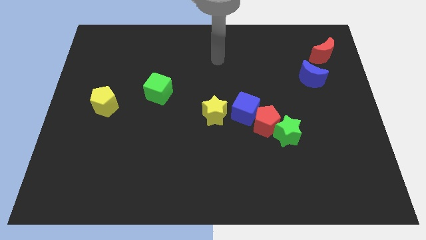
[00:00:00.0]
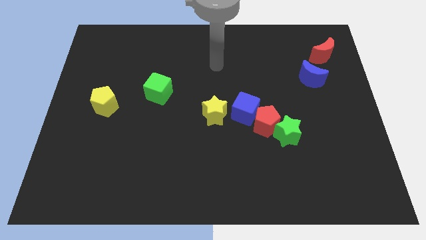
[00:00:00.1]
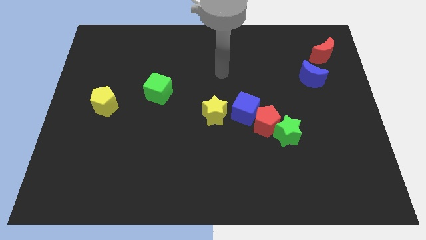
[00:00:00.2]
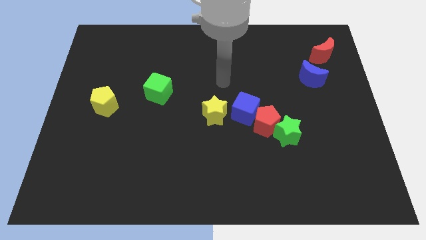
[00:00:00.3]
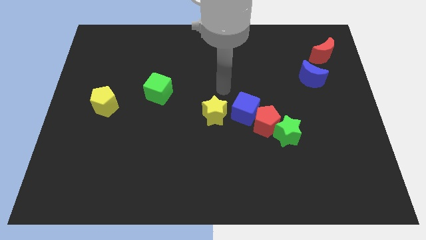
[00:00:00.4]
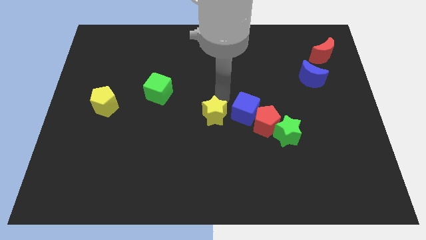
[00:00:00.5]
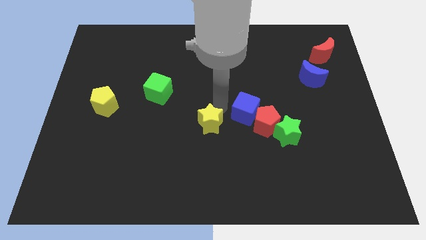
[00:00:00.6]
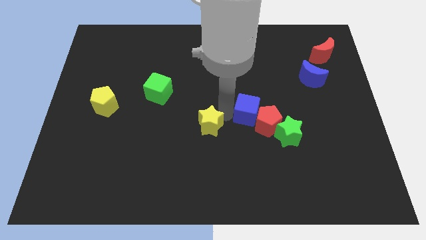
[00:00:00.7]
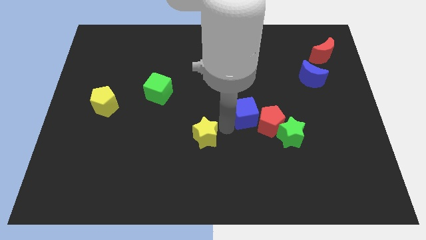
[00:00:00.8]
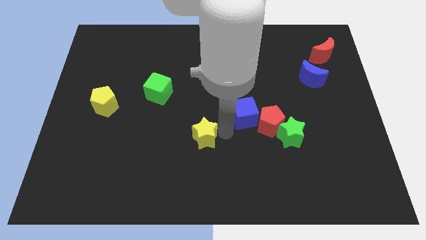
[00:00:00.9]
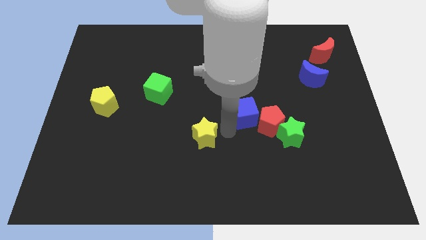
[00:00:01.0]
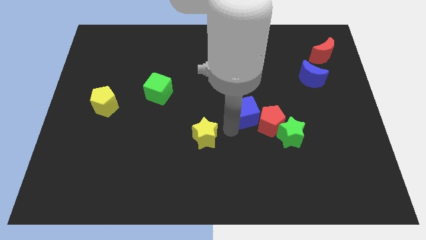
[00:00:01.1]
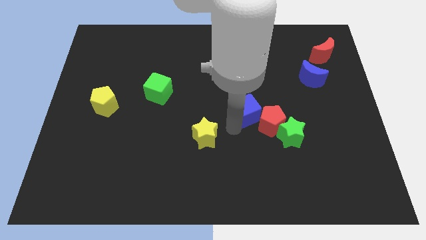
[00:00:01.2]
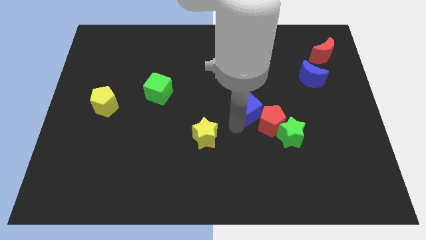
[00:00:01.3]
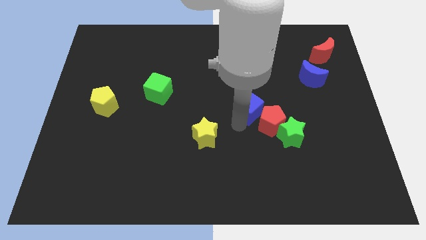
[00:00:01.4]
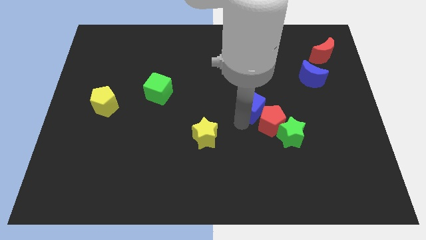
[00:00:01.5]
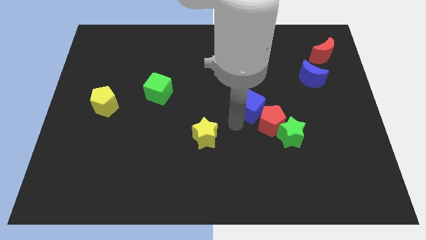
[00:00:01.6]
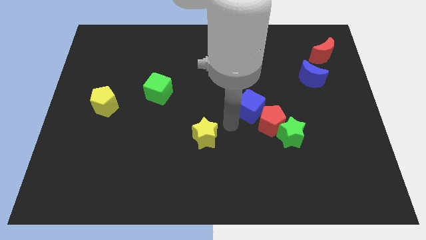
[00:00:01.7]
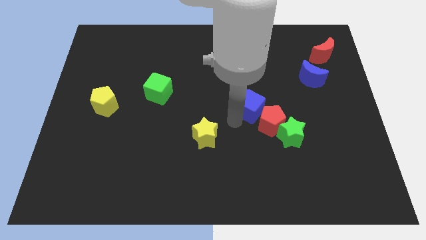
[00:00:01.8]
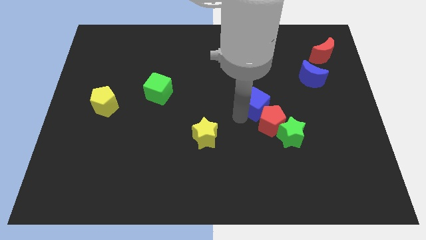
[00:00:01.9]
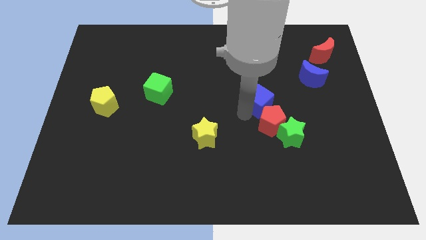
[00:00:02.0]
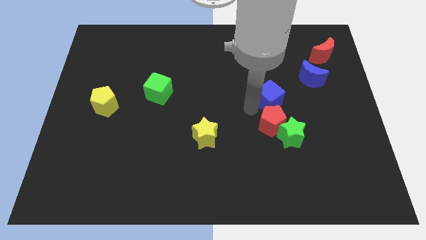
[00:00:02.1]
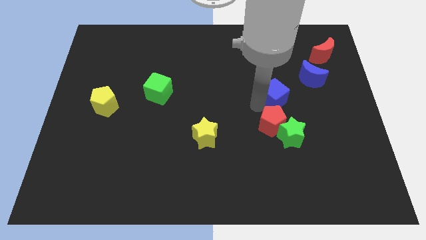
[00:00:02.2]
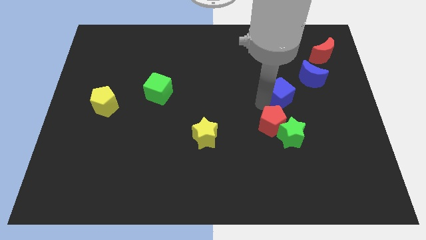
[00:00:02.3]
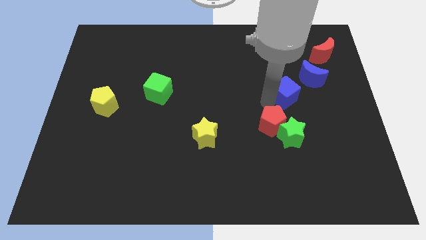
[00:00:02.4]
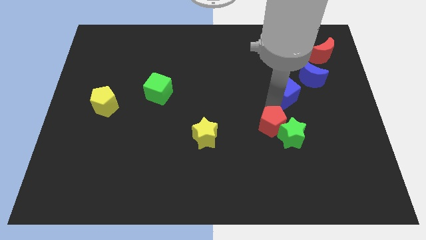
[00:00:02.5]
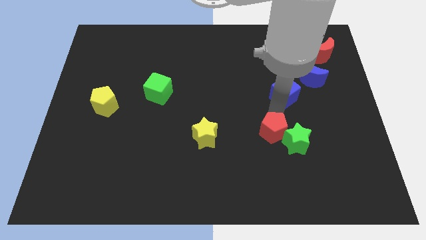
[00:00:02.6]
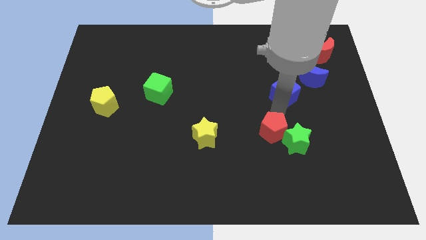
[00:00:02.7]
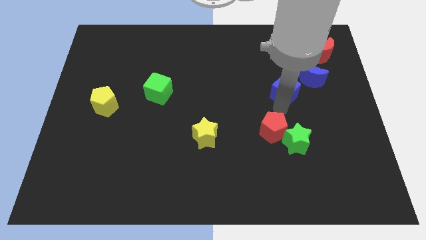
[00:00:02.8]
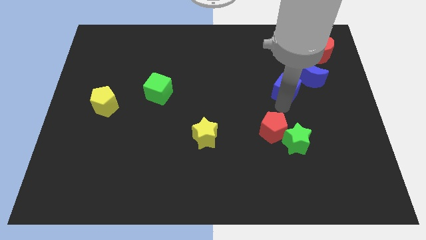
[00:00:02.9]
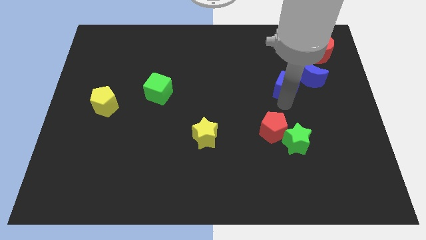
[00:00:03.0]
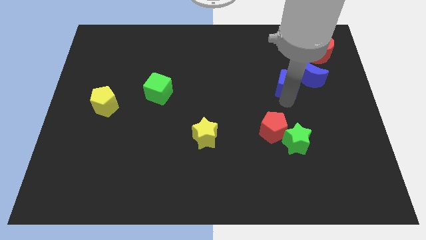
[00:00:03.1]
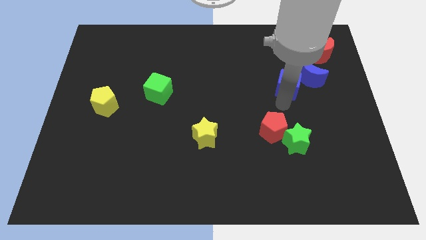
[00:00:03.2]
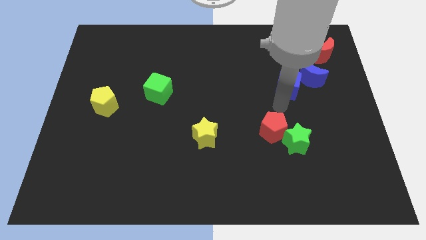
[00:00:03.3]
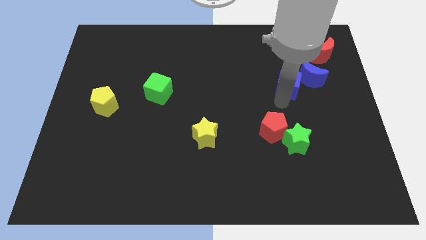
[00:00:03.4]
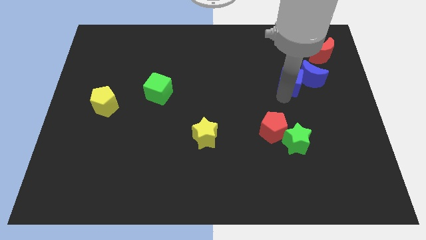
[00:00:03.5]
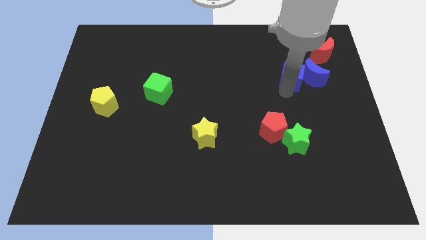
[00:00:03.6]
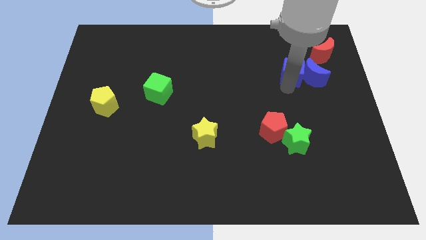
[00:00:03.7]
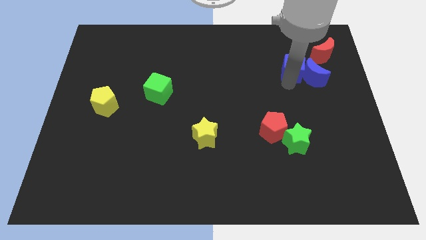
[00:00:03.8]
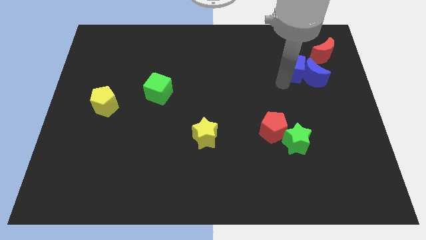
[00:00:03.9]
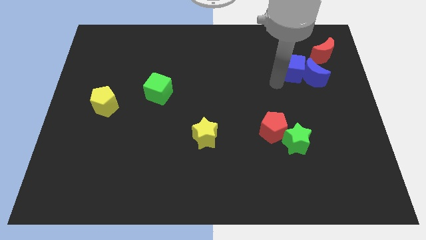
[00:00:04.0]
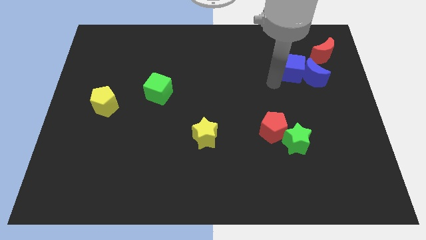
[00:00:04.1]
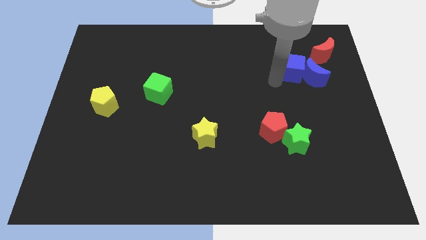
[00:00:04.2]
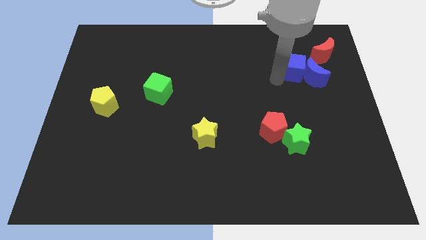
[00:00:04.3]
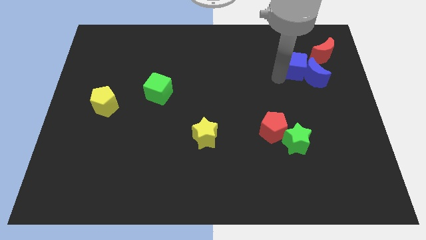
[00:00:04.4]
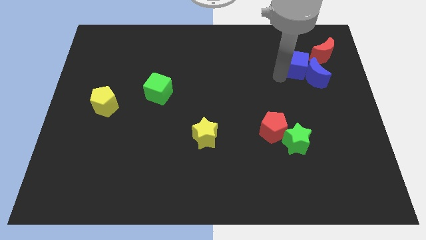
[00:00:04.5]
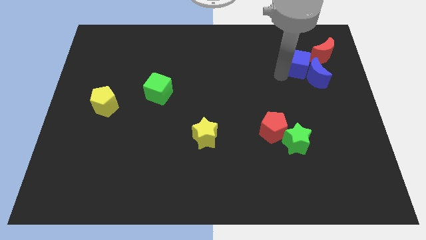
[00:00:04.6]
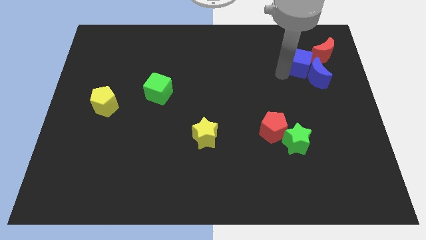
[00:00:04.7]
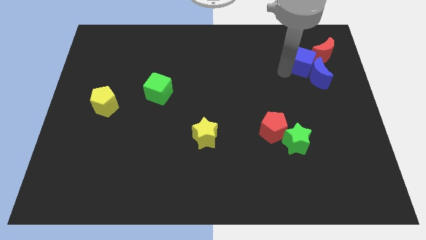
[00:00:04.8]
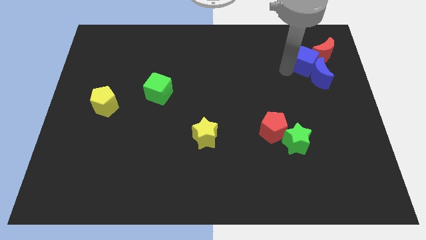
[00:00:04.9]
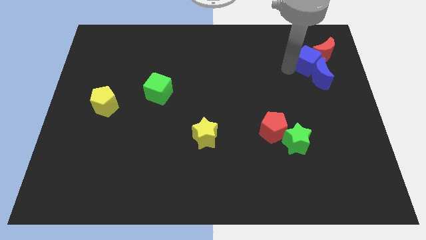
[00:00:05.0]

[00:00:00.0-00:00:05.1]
push the blue cube close to the red moon

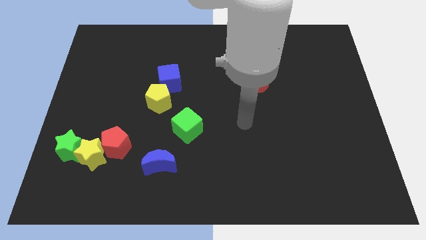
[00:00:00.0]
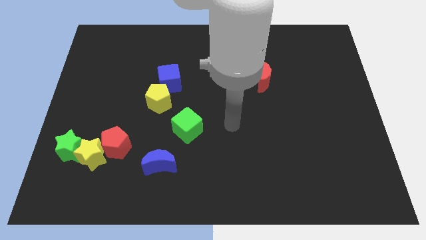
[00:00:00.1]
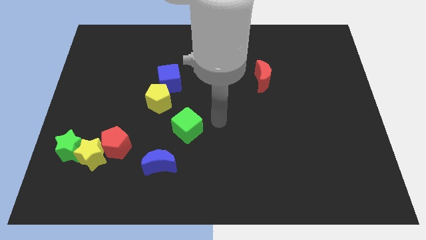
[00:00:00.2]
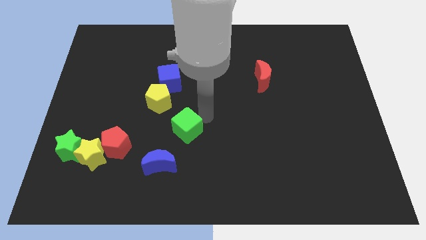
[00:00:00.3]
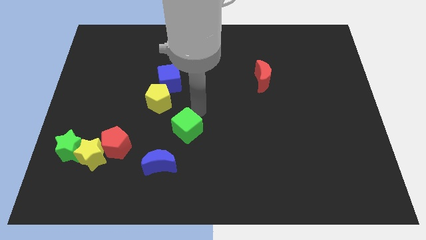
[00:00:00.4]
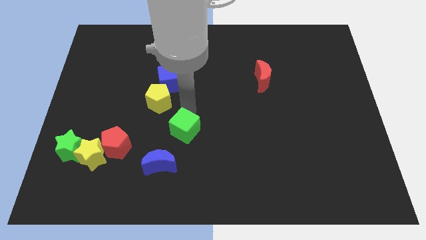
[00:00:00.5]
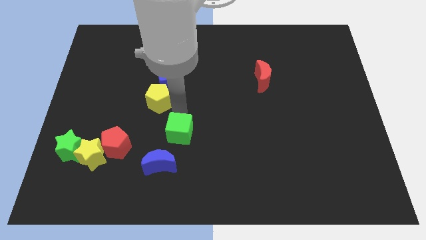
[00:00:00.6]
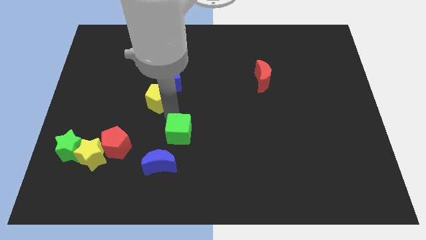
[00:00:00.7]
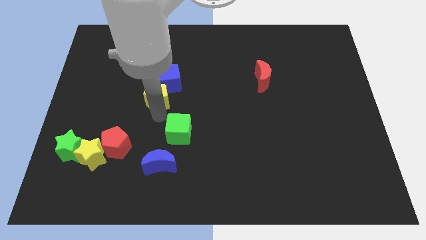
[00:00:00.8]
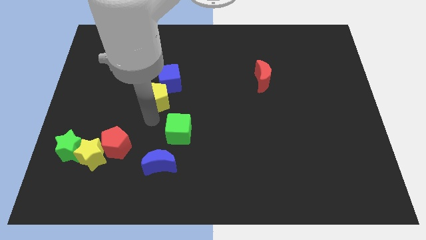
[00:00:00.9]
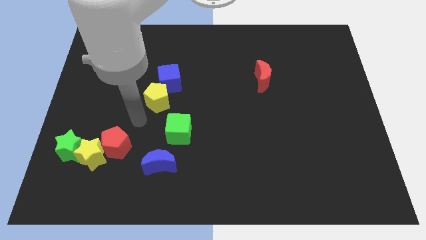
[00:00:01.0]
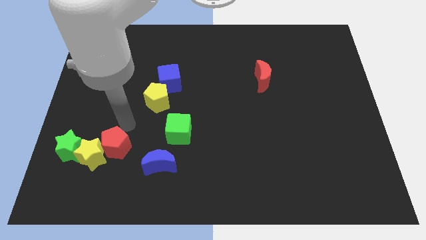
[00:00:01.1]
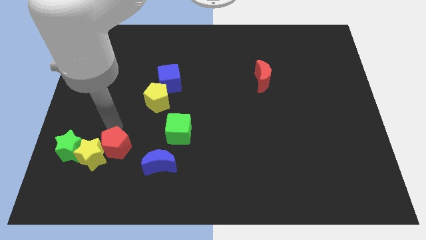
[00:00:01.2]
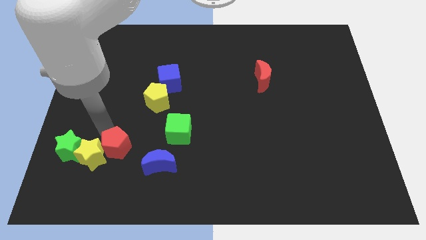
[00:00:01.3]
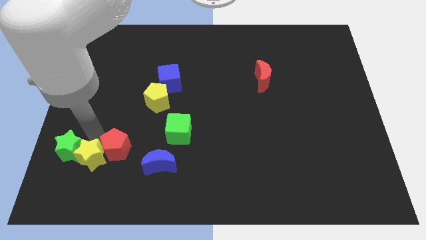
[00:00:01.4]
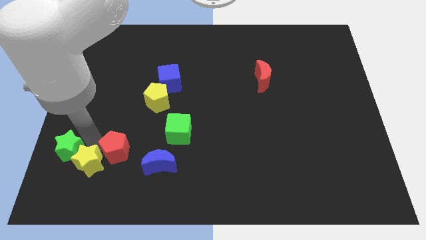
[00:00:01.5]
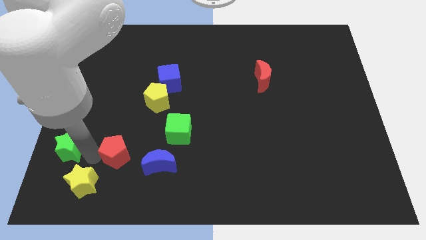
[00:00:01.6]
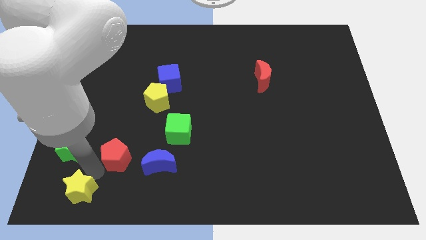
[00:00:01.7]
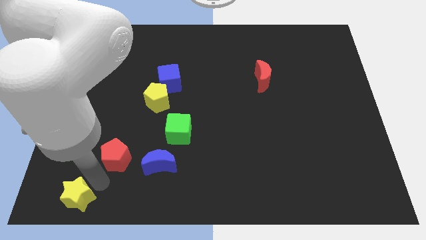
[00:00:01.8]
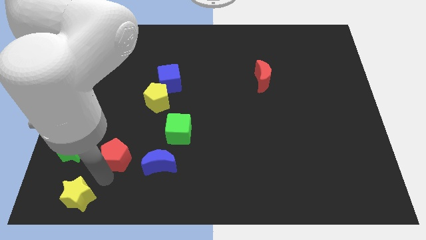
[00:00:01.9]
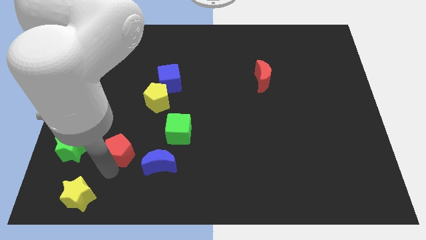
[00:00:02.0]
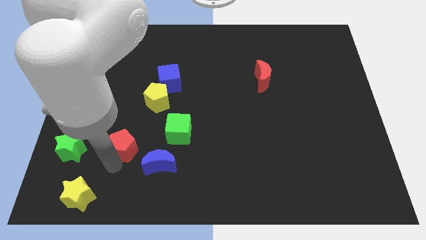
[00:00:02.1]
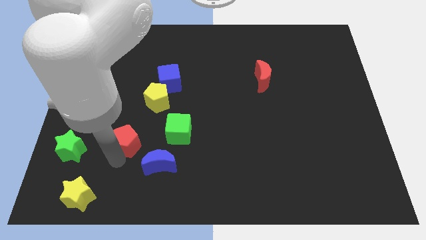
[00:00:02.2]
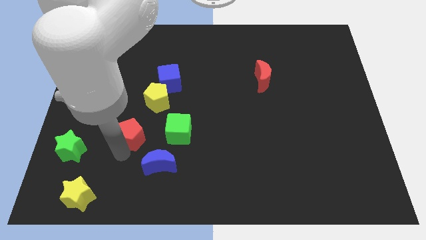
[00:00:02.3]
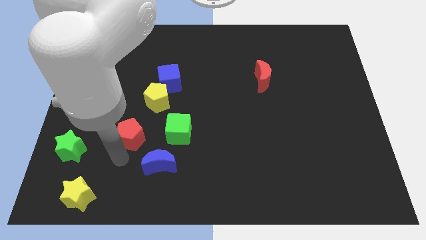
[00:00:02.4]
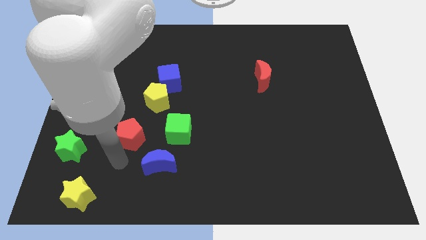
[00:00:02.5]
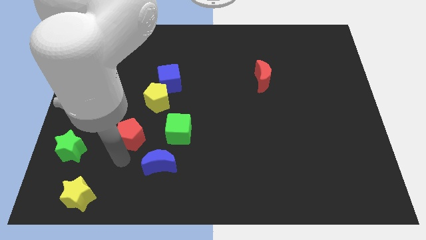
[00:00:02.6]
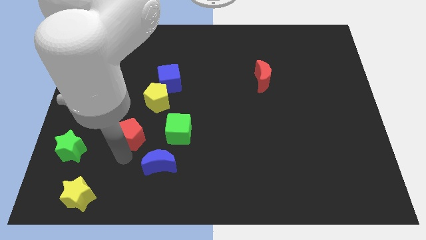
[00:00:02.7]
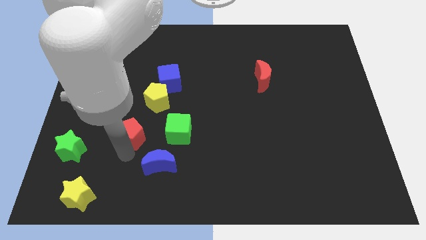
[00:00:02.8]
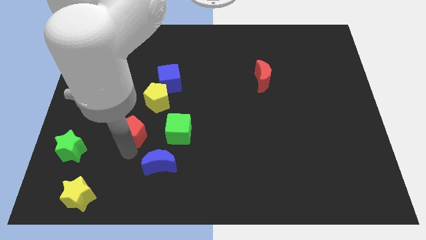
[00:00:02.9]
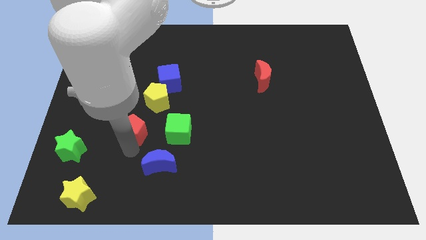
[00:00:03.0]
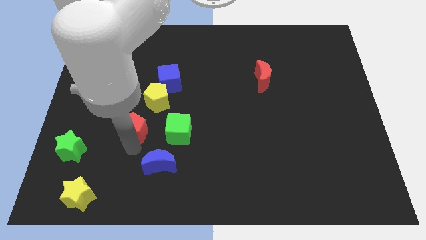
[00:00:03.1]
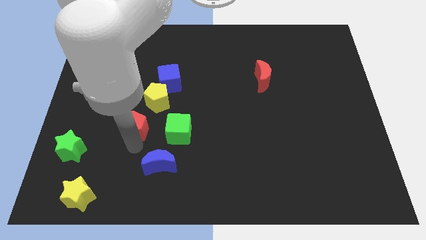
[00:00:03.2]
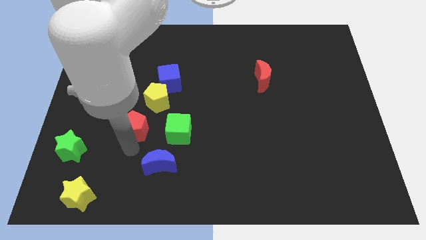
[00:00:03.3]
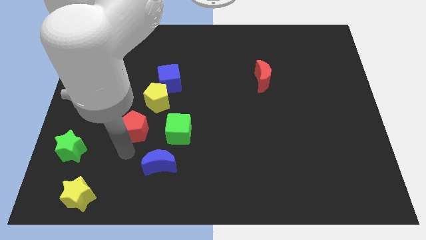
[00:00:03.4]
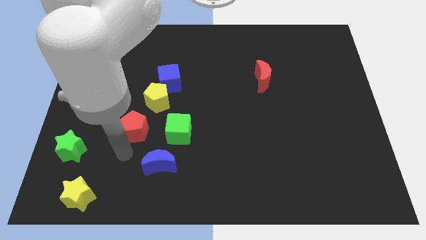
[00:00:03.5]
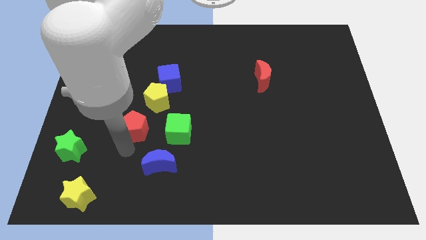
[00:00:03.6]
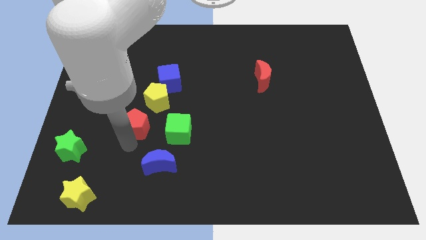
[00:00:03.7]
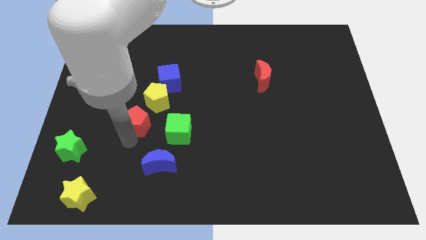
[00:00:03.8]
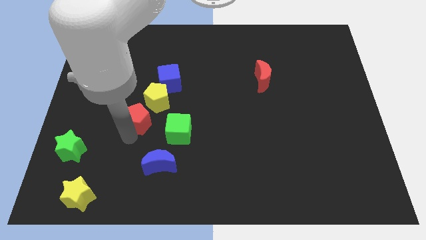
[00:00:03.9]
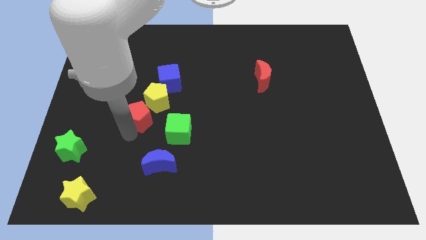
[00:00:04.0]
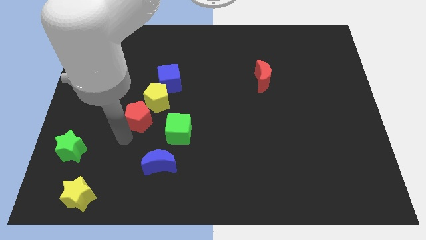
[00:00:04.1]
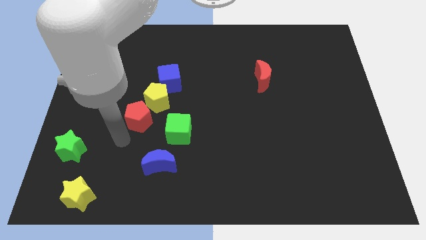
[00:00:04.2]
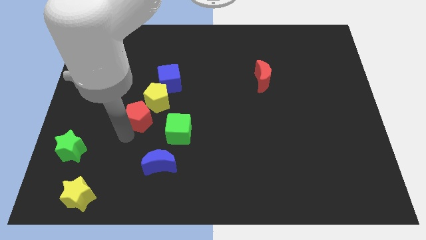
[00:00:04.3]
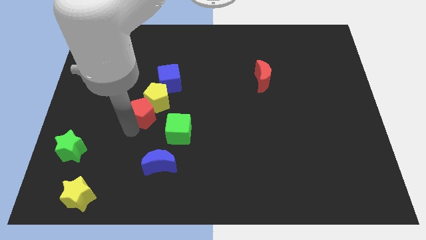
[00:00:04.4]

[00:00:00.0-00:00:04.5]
put the red pentagon to the yellow pentagon
